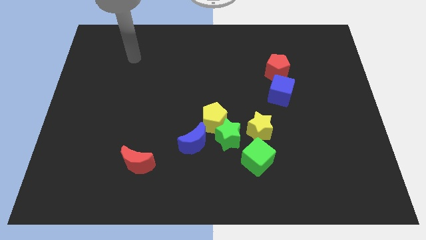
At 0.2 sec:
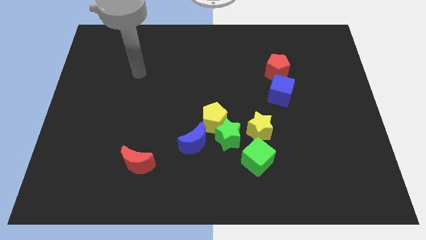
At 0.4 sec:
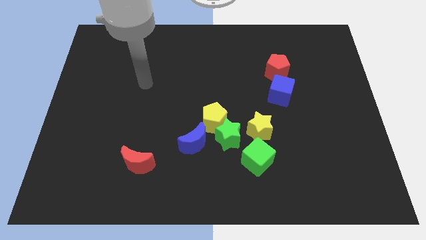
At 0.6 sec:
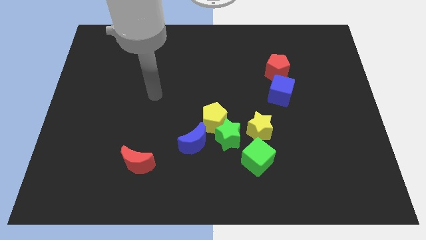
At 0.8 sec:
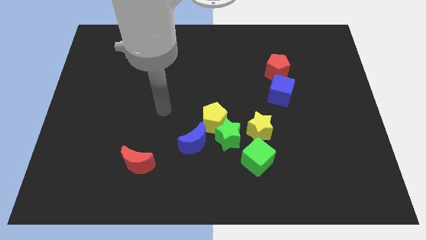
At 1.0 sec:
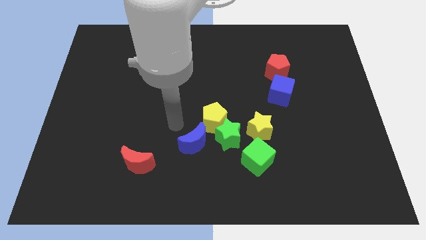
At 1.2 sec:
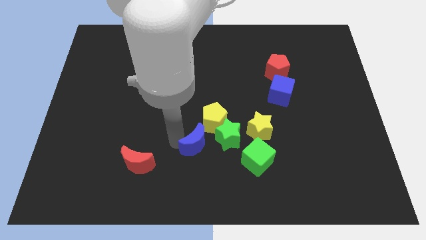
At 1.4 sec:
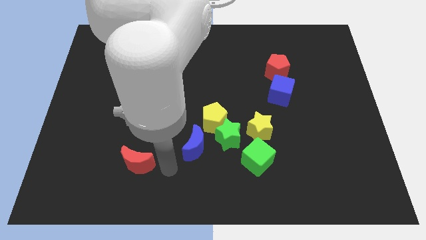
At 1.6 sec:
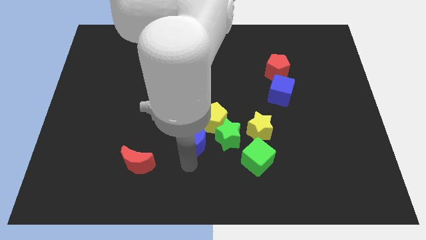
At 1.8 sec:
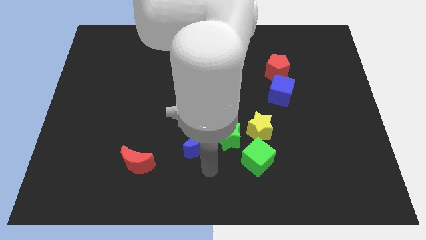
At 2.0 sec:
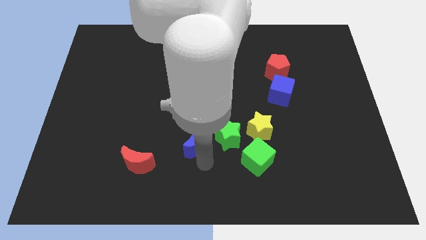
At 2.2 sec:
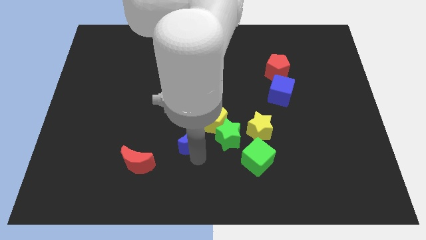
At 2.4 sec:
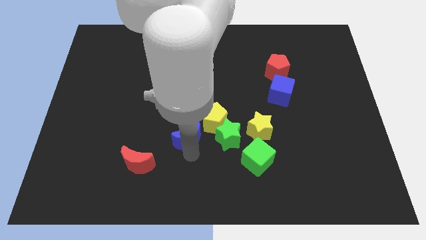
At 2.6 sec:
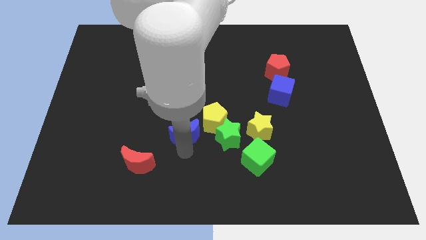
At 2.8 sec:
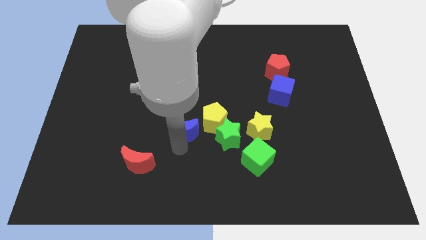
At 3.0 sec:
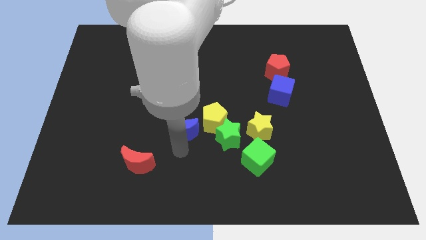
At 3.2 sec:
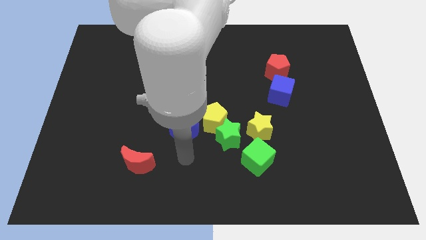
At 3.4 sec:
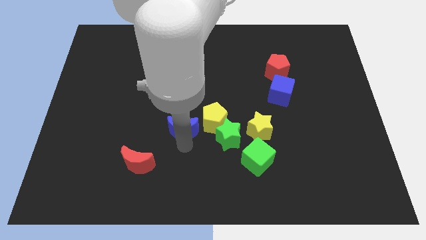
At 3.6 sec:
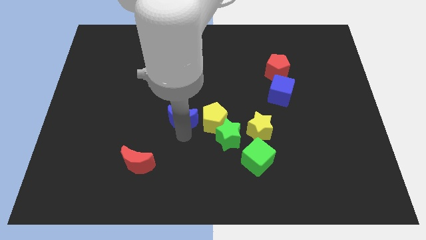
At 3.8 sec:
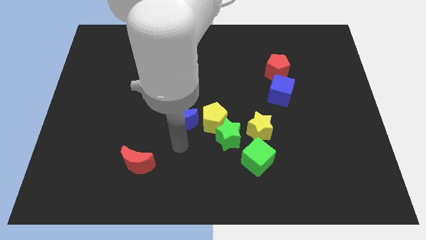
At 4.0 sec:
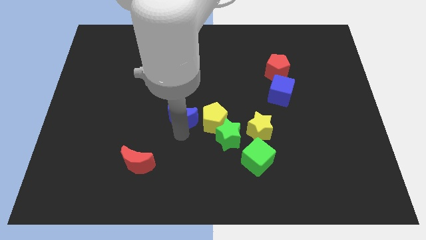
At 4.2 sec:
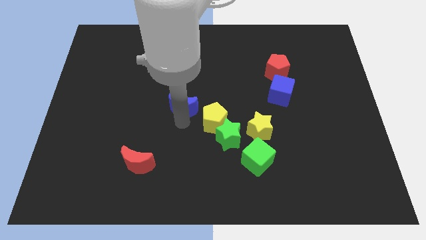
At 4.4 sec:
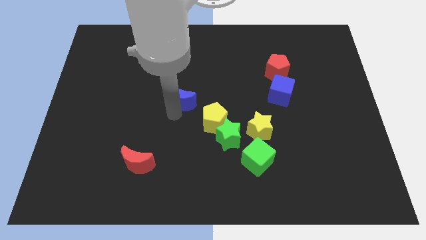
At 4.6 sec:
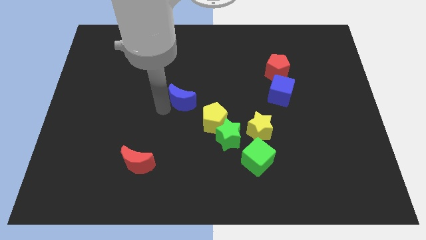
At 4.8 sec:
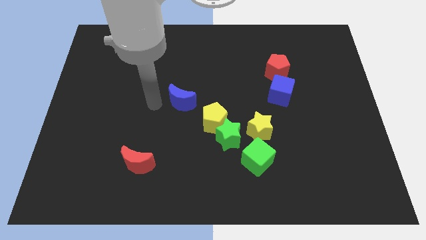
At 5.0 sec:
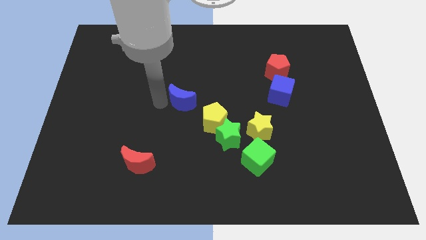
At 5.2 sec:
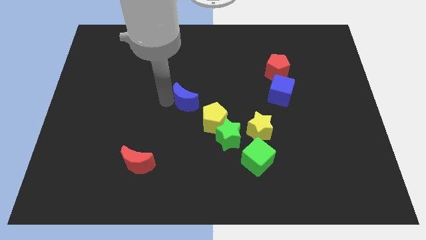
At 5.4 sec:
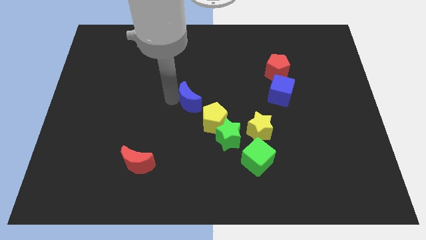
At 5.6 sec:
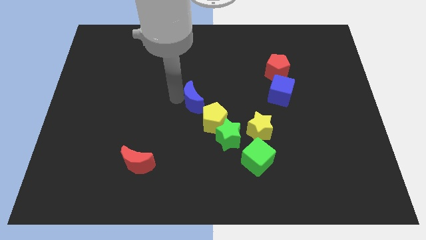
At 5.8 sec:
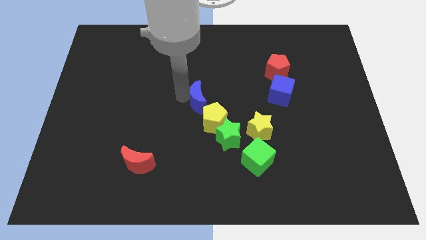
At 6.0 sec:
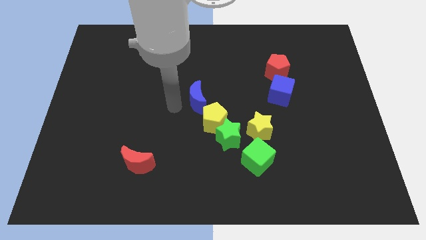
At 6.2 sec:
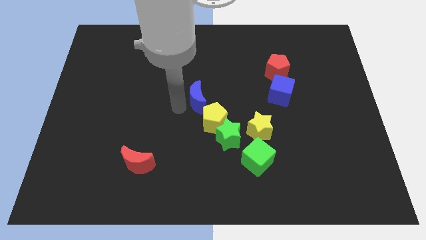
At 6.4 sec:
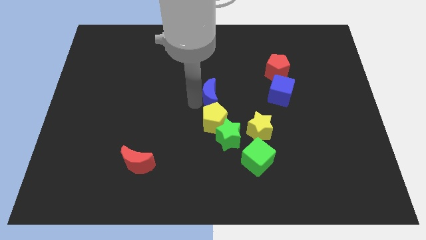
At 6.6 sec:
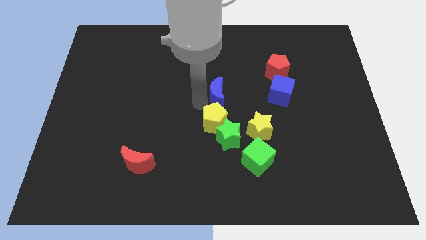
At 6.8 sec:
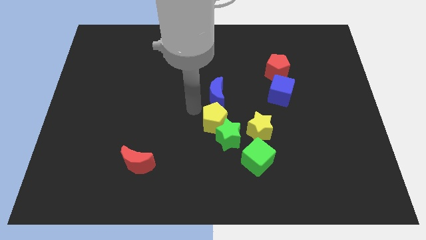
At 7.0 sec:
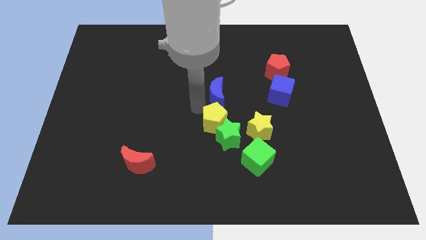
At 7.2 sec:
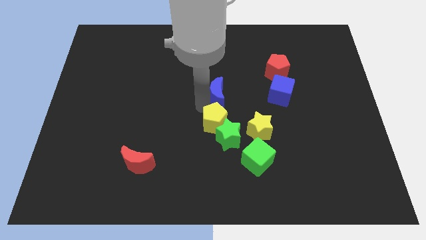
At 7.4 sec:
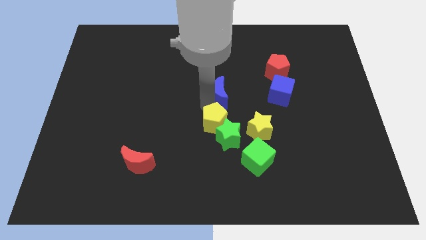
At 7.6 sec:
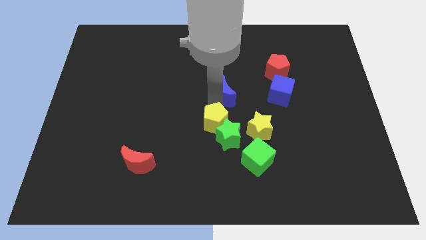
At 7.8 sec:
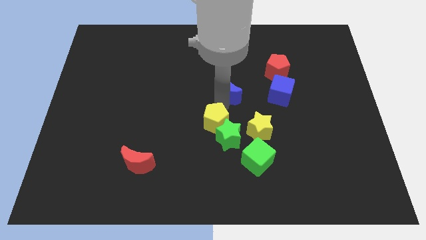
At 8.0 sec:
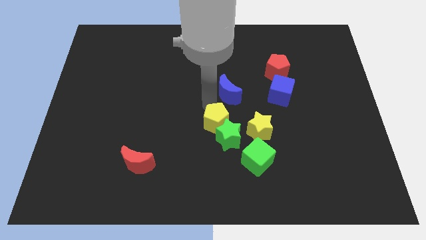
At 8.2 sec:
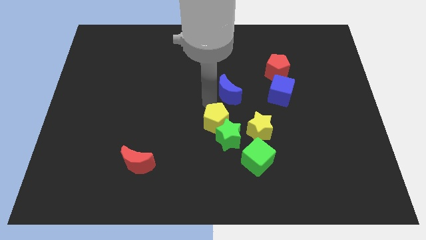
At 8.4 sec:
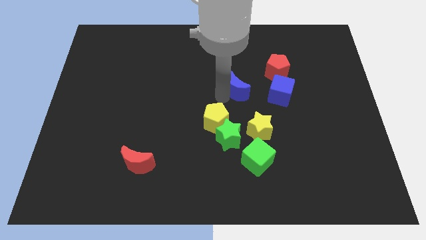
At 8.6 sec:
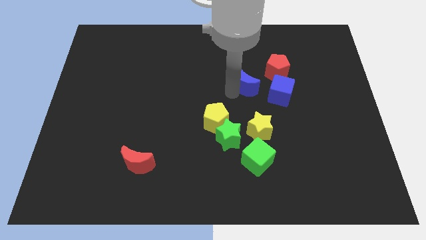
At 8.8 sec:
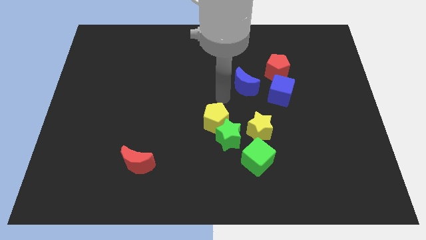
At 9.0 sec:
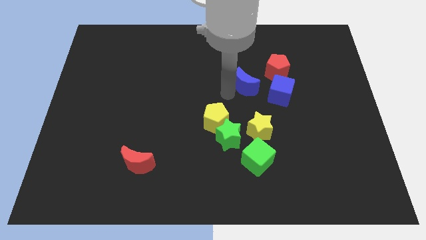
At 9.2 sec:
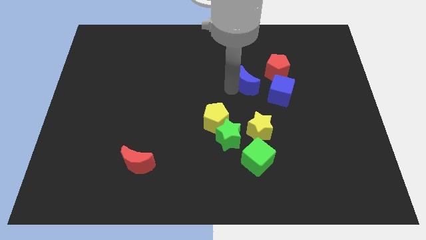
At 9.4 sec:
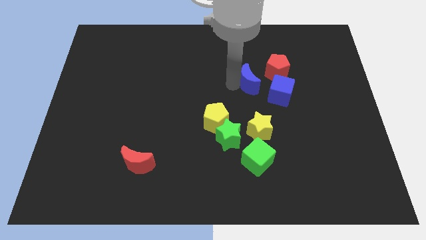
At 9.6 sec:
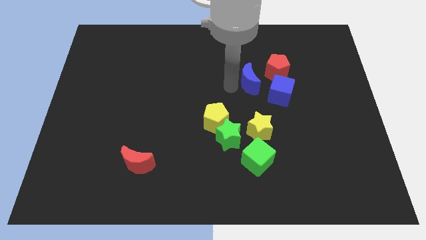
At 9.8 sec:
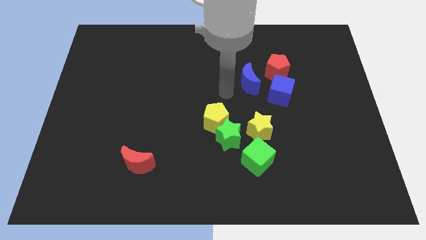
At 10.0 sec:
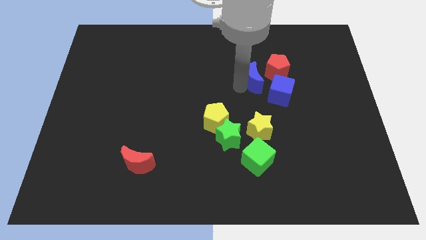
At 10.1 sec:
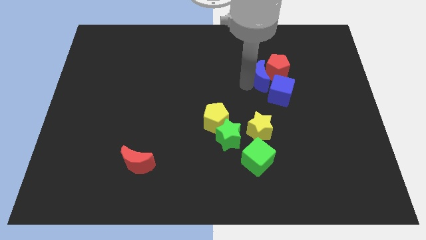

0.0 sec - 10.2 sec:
slide the blue moon to the red pentagon

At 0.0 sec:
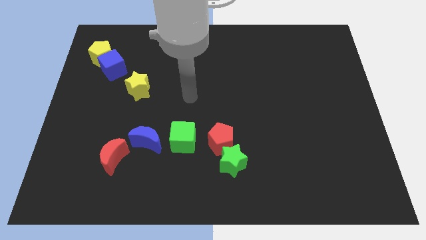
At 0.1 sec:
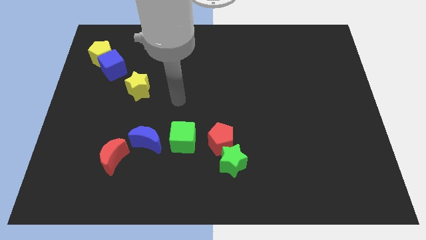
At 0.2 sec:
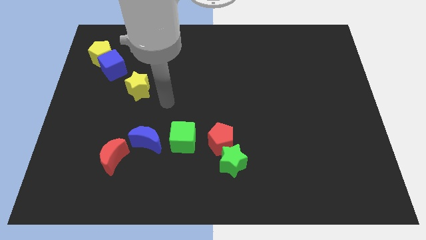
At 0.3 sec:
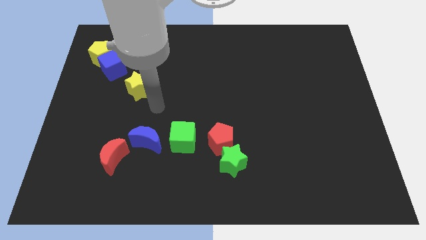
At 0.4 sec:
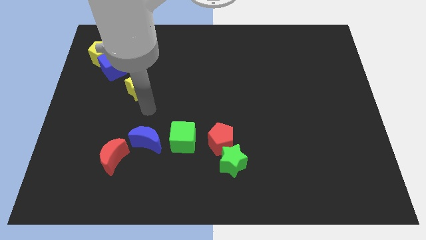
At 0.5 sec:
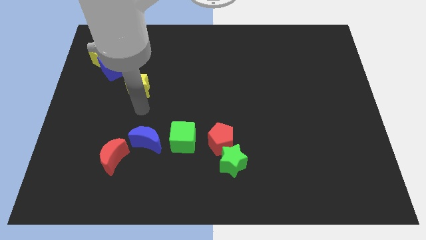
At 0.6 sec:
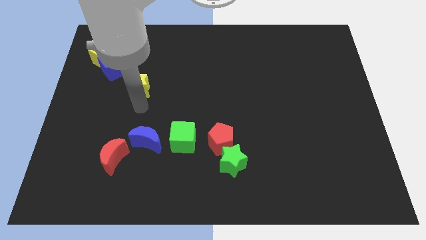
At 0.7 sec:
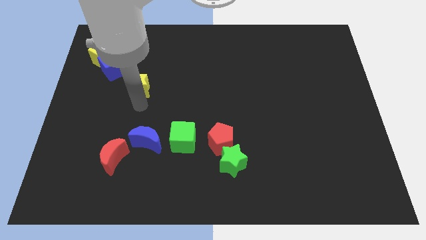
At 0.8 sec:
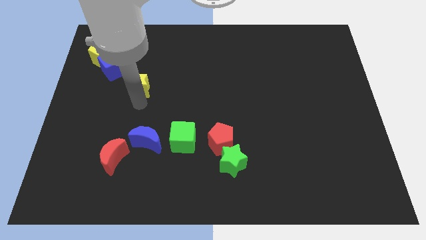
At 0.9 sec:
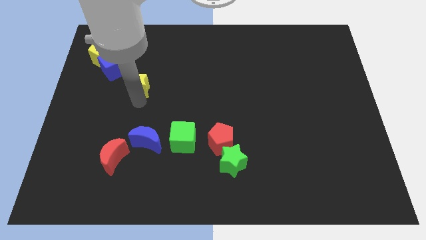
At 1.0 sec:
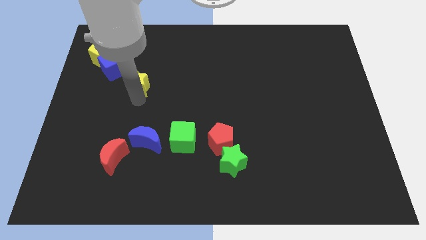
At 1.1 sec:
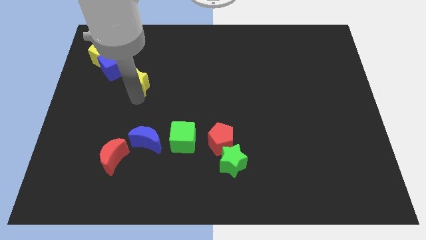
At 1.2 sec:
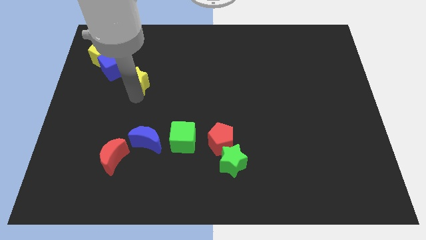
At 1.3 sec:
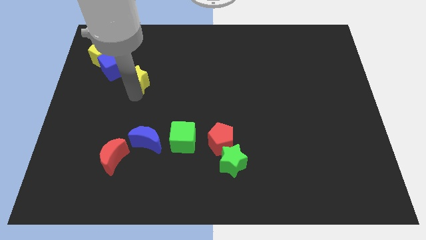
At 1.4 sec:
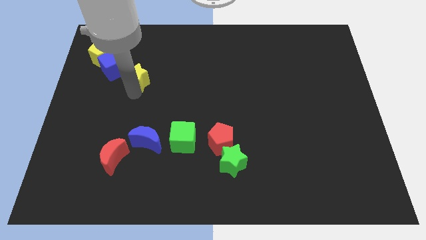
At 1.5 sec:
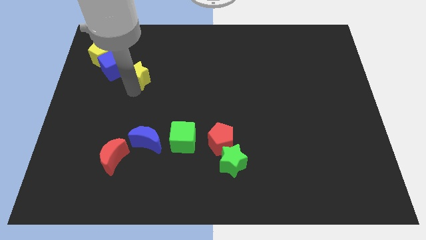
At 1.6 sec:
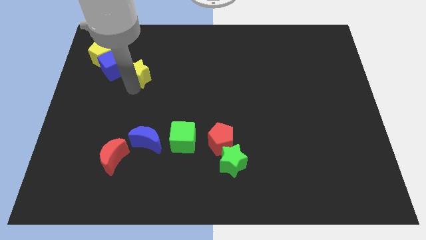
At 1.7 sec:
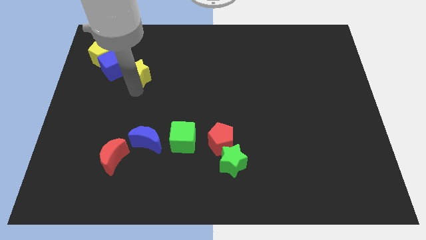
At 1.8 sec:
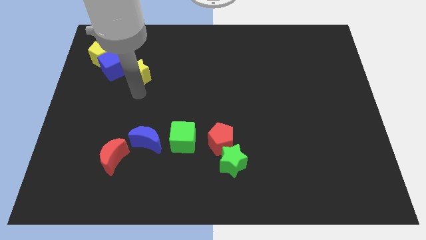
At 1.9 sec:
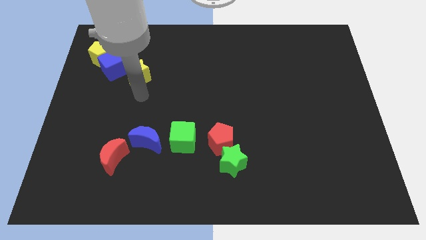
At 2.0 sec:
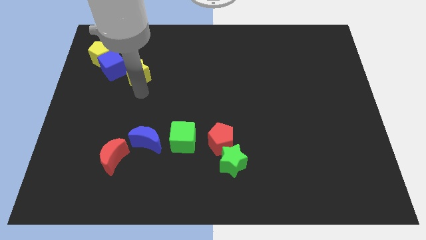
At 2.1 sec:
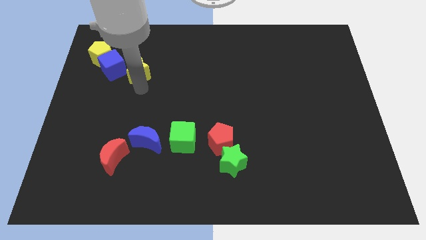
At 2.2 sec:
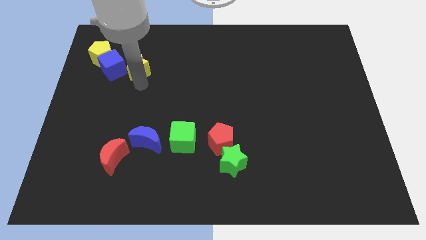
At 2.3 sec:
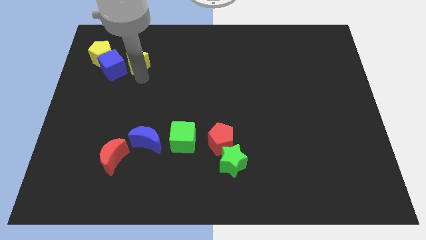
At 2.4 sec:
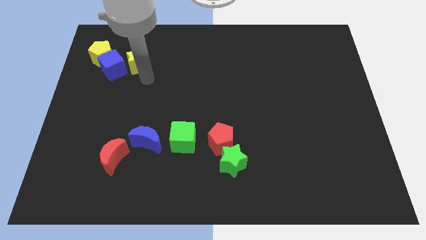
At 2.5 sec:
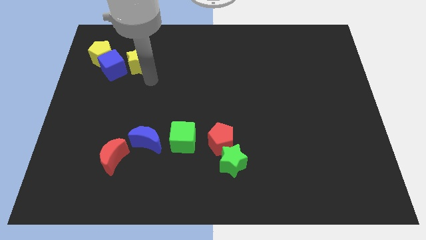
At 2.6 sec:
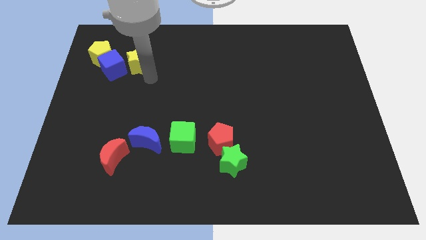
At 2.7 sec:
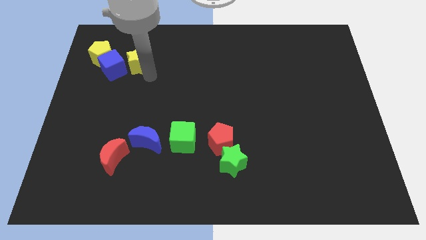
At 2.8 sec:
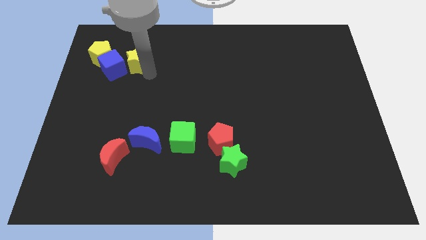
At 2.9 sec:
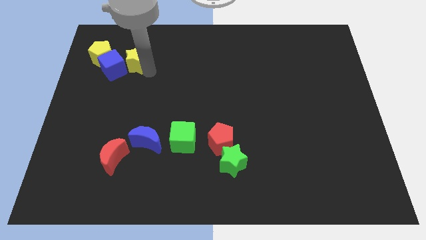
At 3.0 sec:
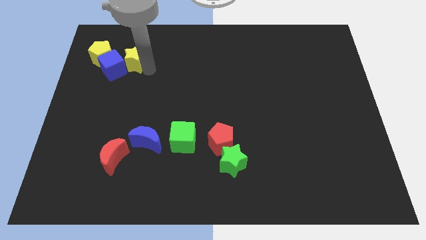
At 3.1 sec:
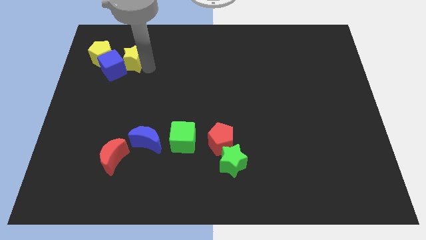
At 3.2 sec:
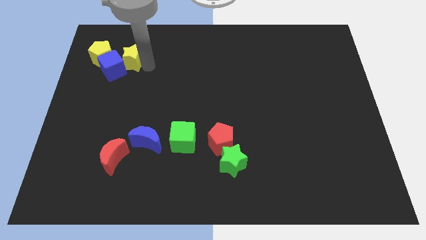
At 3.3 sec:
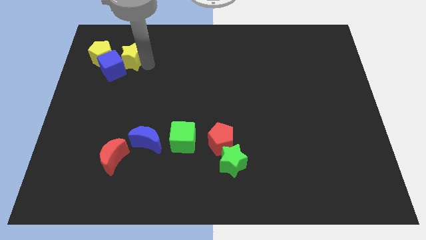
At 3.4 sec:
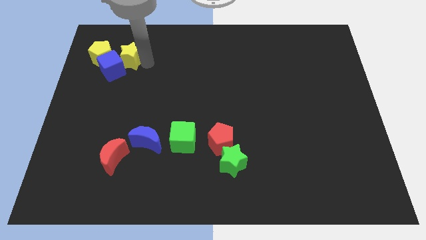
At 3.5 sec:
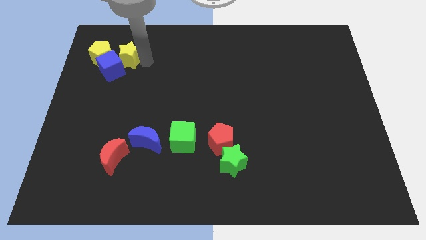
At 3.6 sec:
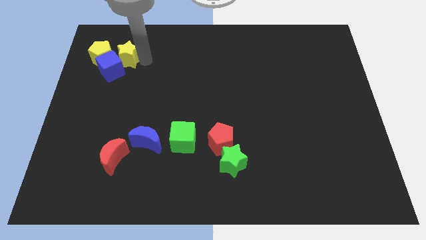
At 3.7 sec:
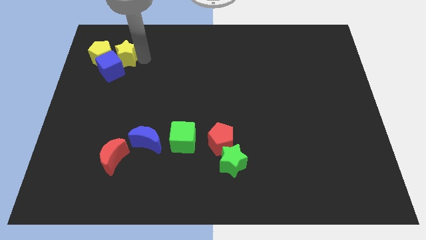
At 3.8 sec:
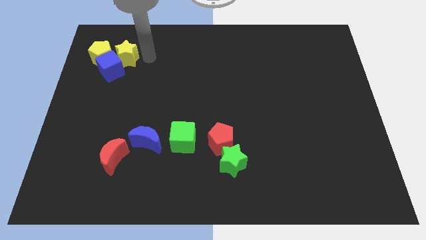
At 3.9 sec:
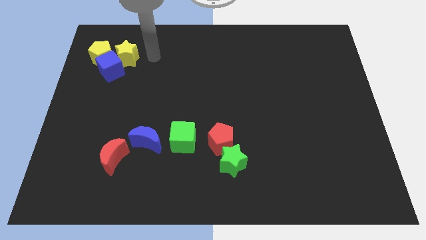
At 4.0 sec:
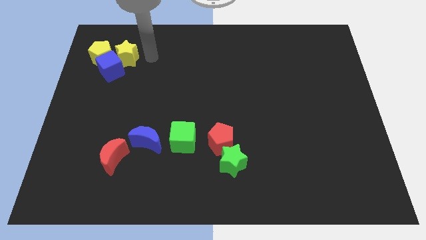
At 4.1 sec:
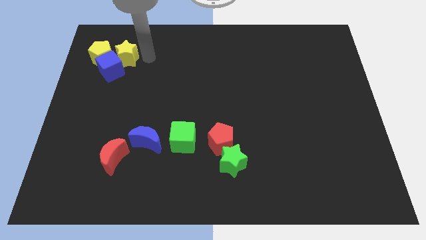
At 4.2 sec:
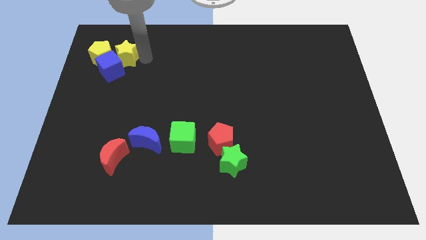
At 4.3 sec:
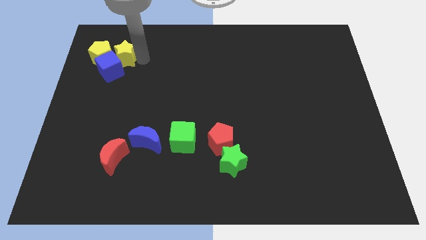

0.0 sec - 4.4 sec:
move the yellow star next to the yellow pentagon
